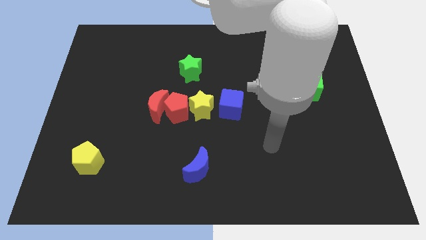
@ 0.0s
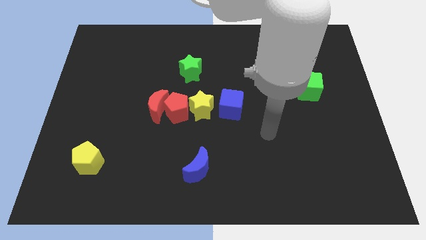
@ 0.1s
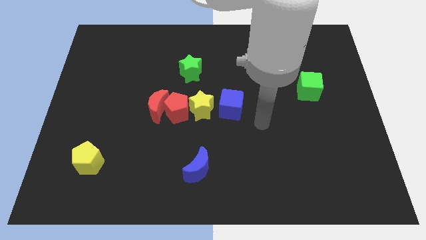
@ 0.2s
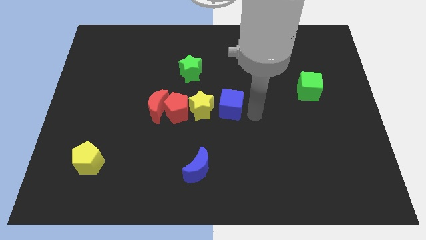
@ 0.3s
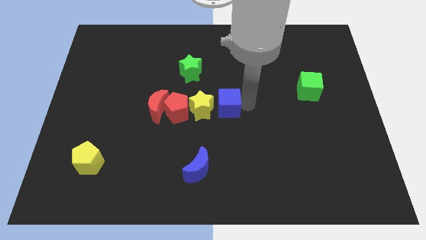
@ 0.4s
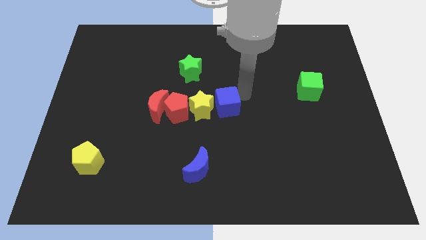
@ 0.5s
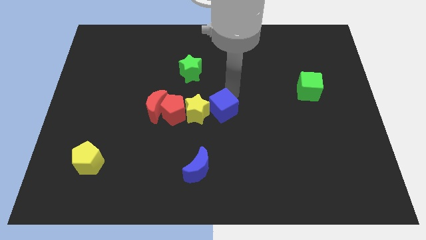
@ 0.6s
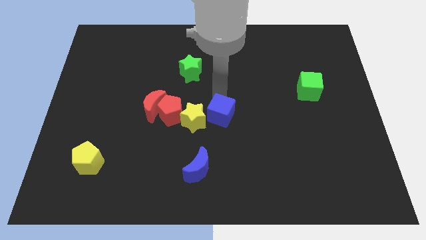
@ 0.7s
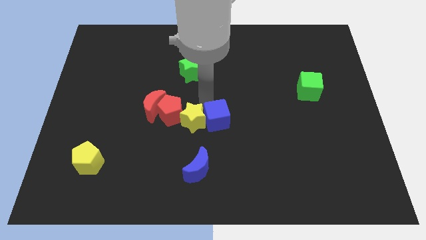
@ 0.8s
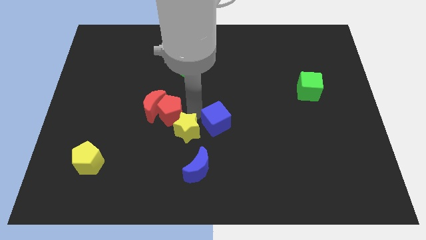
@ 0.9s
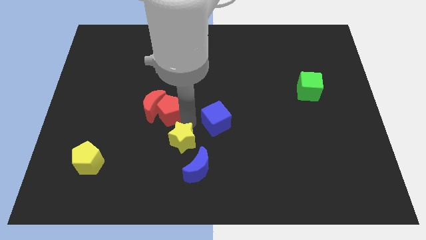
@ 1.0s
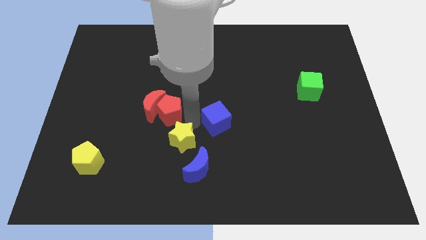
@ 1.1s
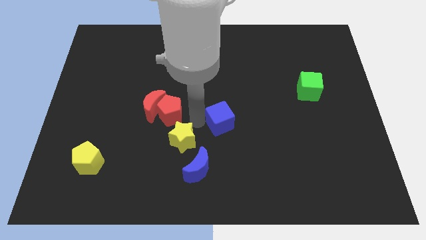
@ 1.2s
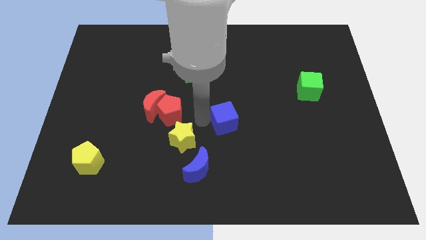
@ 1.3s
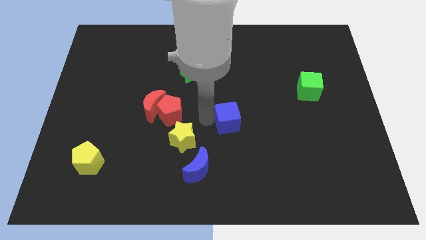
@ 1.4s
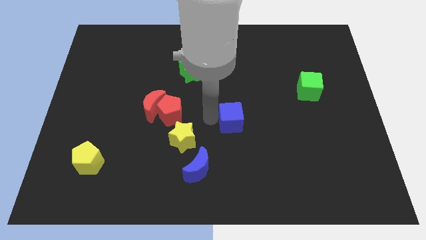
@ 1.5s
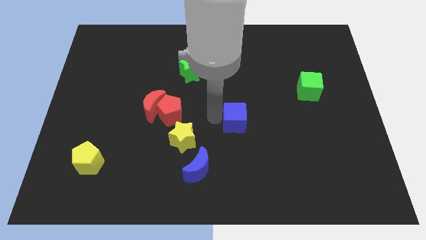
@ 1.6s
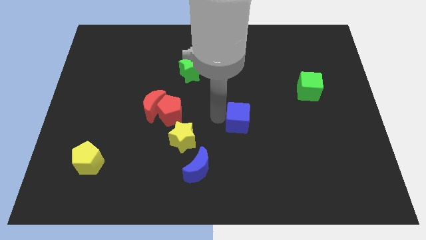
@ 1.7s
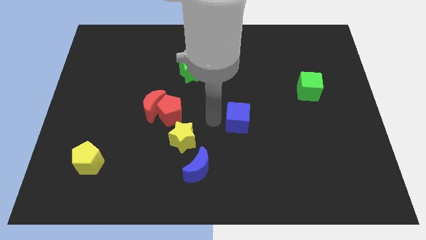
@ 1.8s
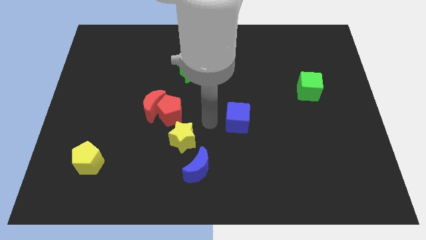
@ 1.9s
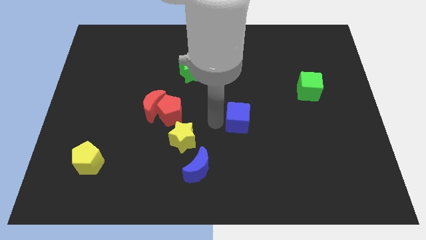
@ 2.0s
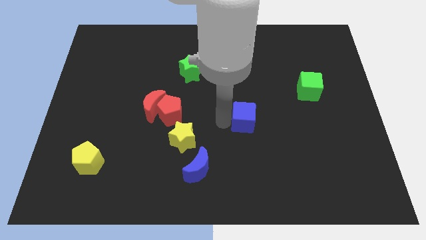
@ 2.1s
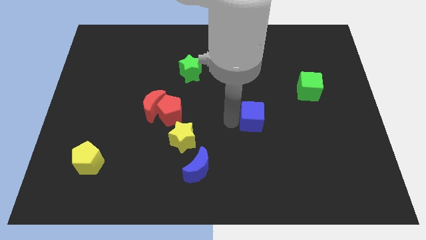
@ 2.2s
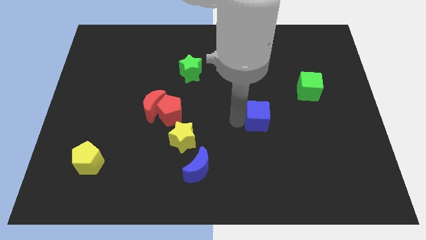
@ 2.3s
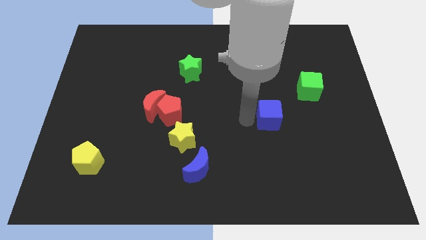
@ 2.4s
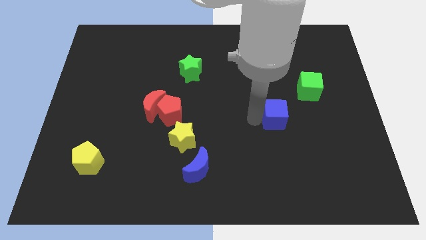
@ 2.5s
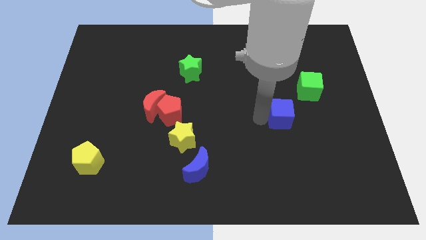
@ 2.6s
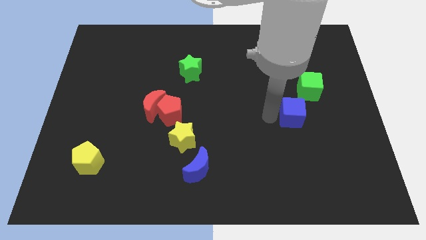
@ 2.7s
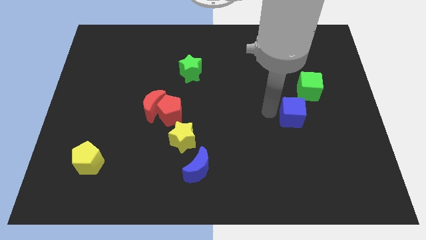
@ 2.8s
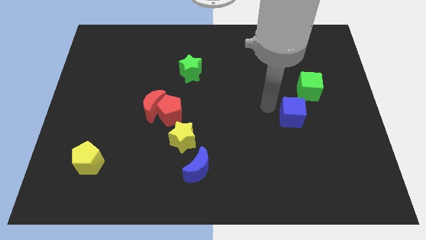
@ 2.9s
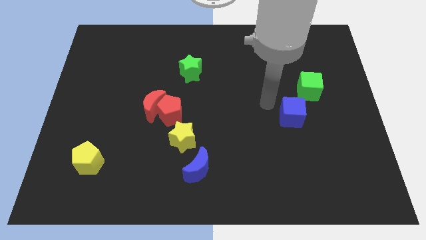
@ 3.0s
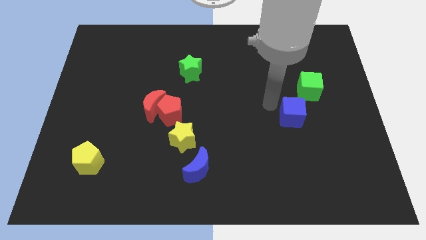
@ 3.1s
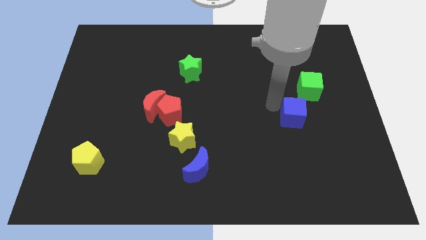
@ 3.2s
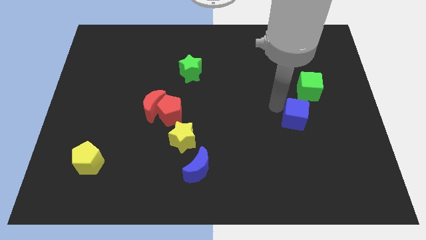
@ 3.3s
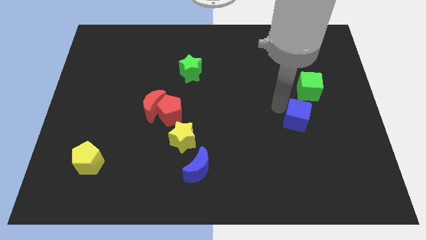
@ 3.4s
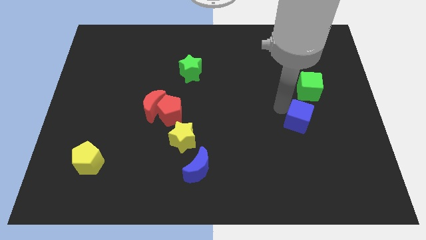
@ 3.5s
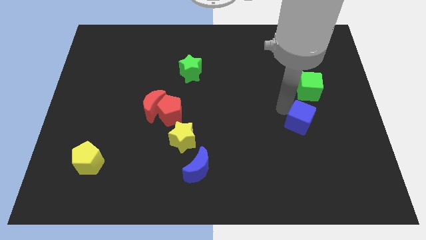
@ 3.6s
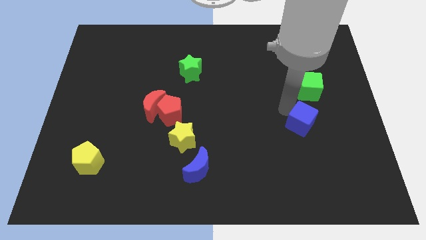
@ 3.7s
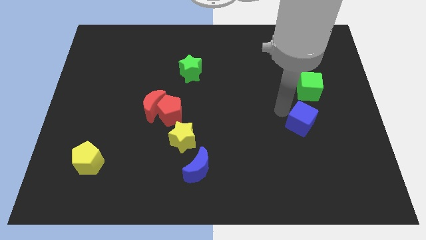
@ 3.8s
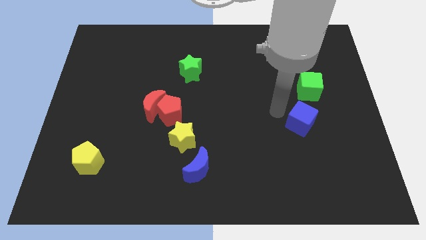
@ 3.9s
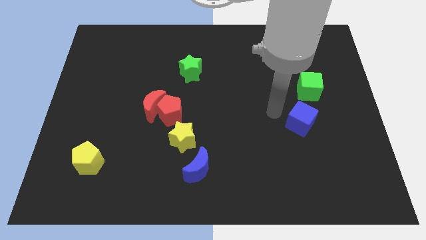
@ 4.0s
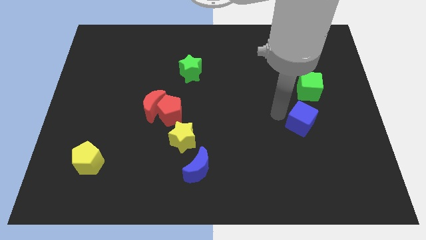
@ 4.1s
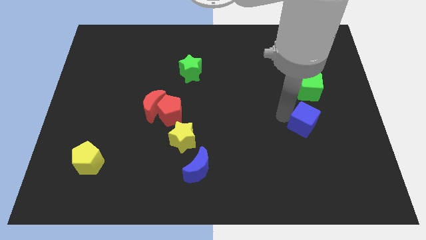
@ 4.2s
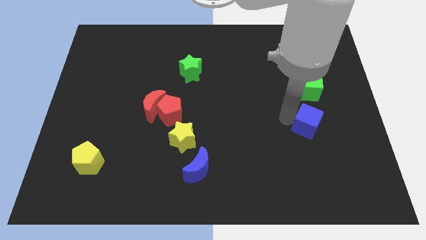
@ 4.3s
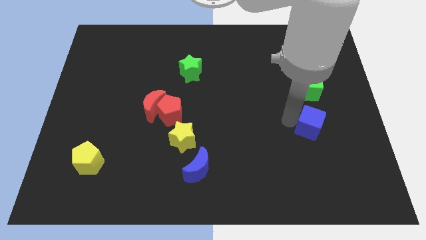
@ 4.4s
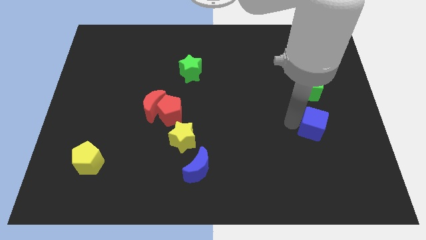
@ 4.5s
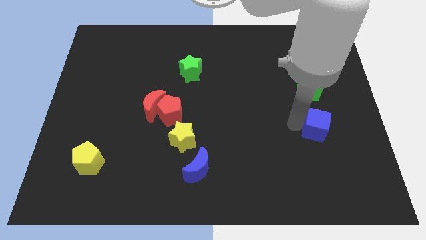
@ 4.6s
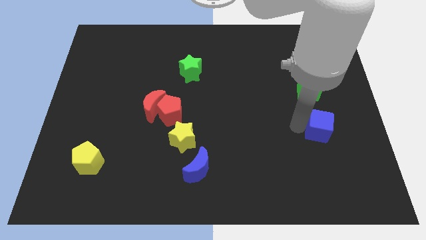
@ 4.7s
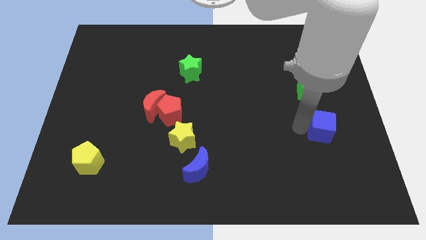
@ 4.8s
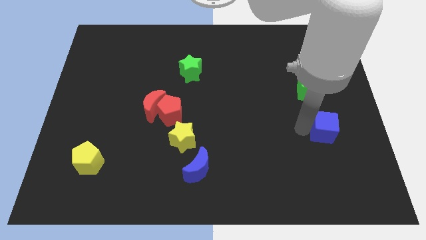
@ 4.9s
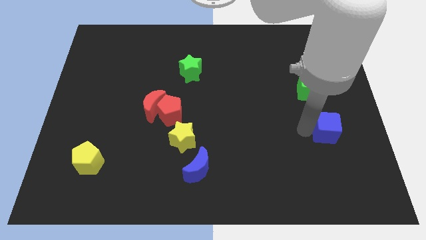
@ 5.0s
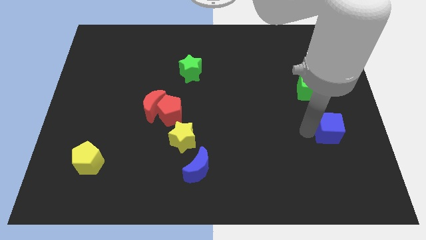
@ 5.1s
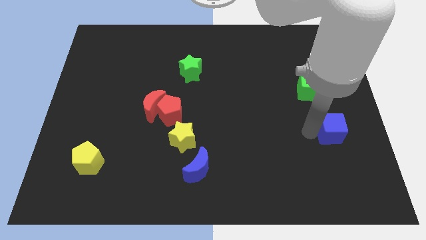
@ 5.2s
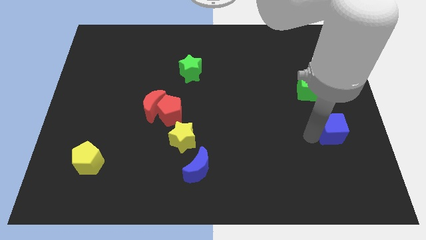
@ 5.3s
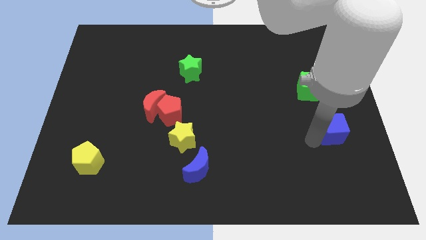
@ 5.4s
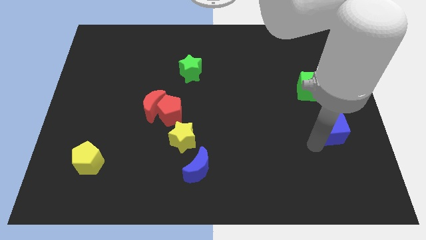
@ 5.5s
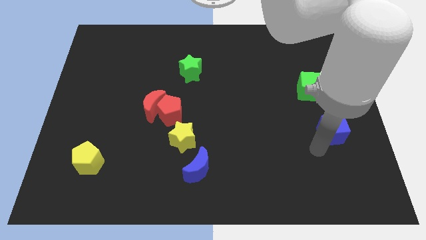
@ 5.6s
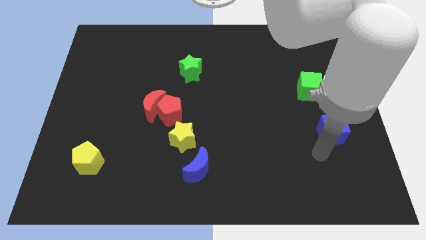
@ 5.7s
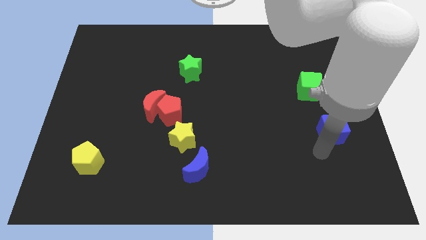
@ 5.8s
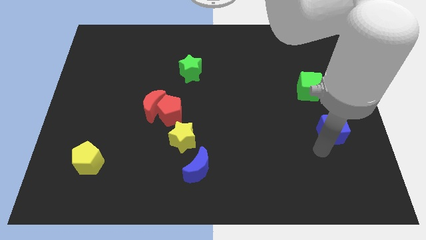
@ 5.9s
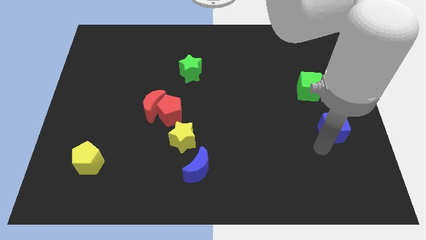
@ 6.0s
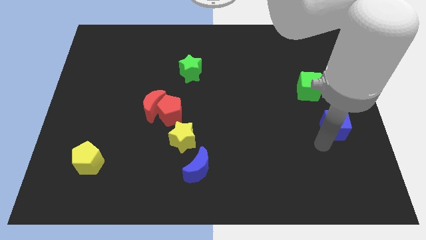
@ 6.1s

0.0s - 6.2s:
push the blue cube to the right side
